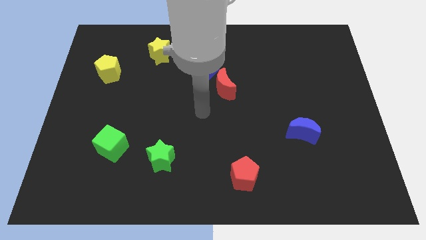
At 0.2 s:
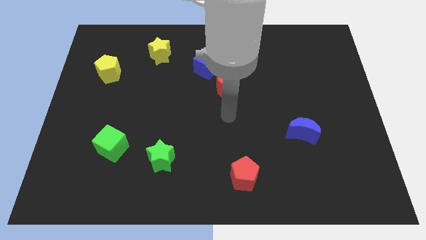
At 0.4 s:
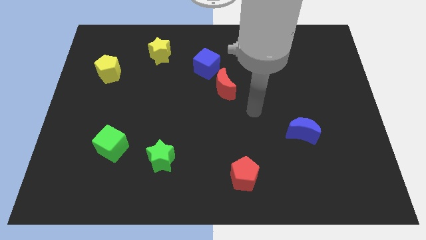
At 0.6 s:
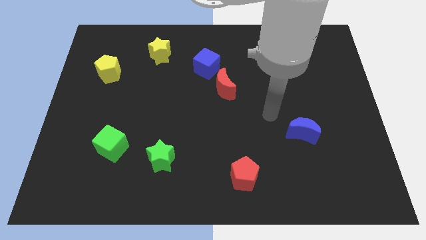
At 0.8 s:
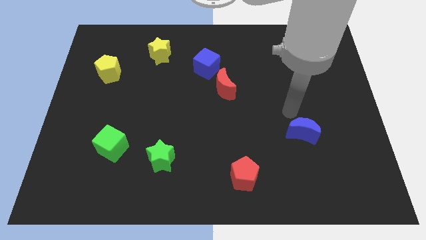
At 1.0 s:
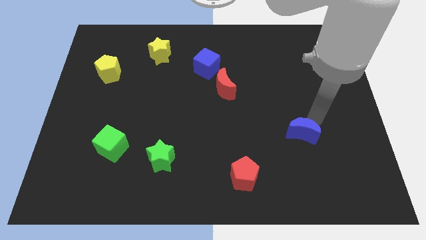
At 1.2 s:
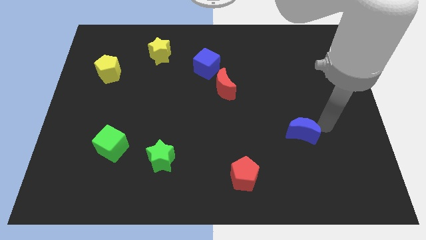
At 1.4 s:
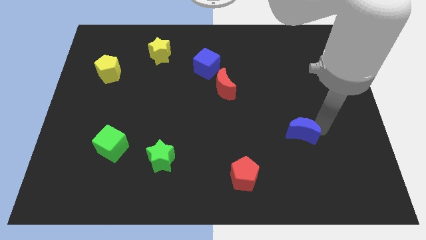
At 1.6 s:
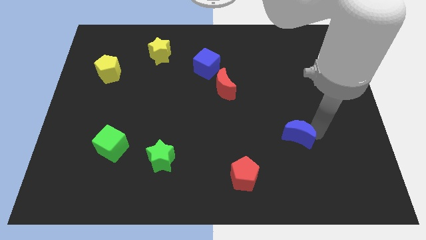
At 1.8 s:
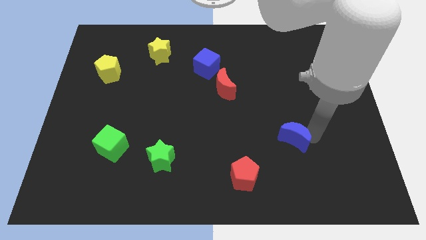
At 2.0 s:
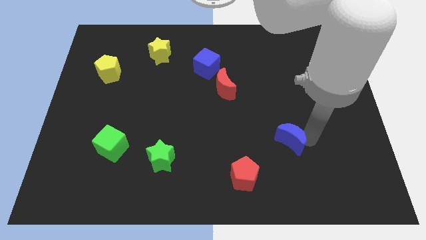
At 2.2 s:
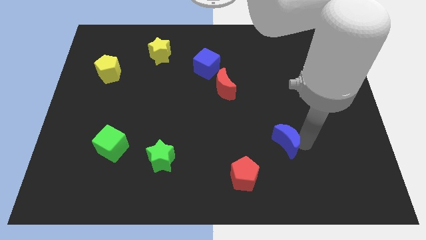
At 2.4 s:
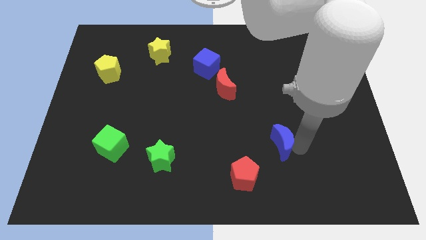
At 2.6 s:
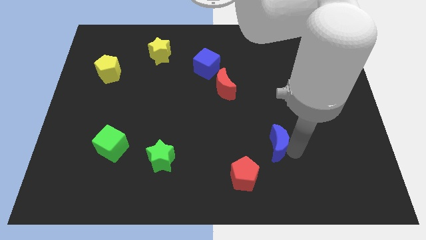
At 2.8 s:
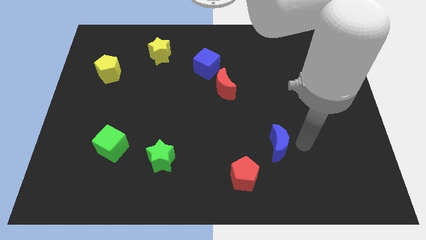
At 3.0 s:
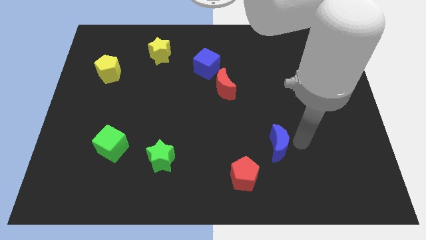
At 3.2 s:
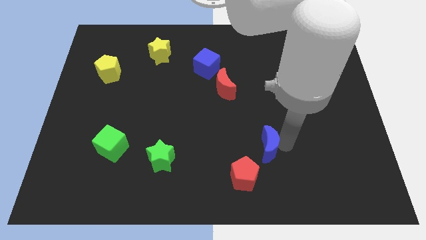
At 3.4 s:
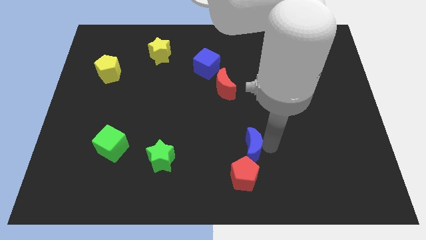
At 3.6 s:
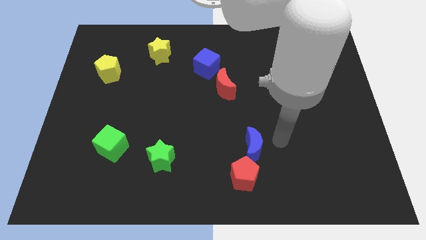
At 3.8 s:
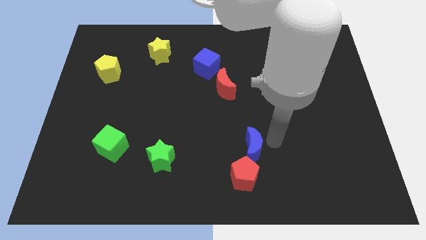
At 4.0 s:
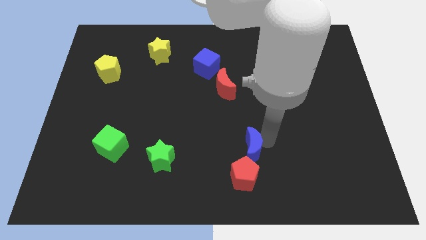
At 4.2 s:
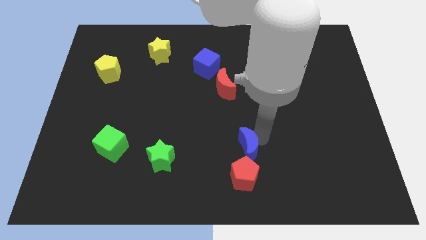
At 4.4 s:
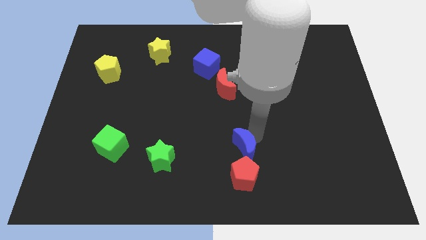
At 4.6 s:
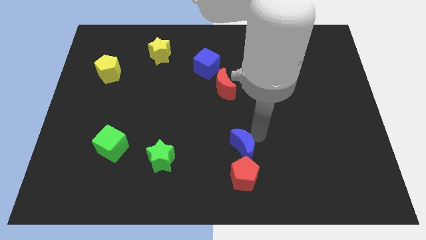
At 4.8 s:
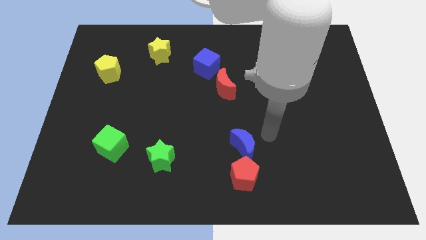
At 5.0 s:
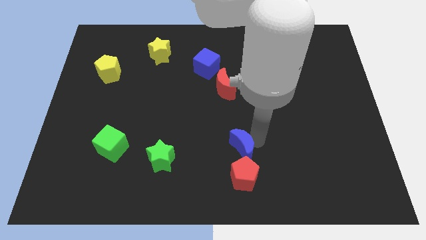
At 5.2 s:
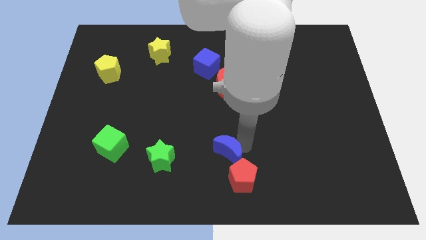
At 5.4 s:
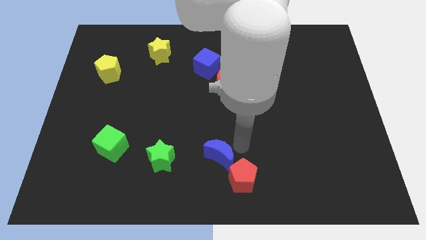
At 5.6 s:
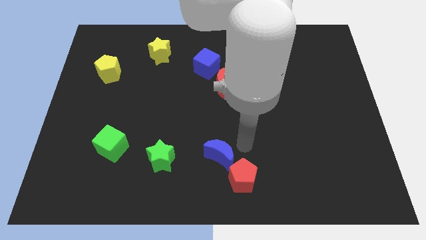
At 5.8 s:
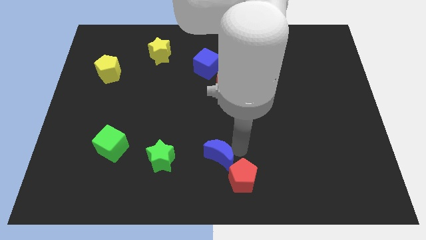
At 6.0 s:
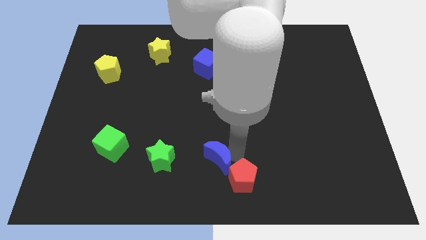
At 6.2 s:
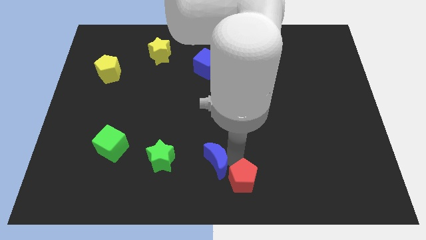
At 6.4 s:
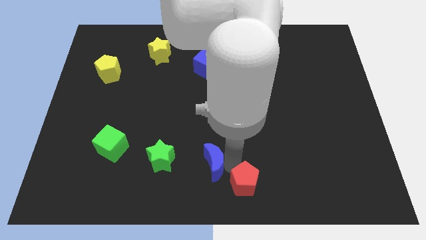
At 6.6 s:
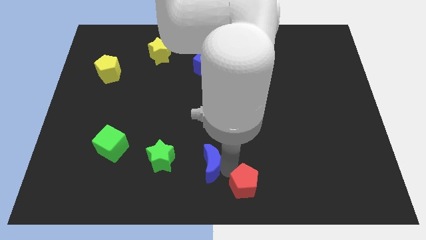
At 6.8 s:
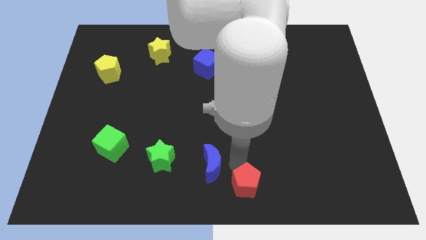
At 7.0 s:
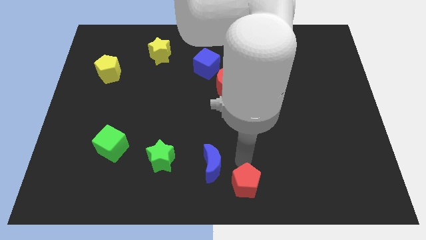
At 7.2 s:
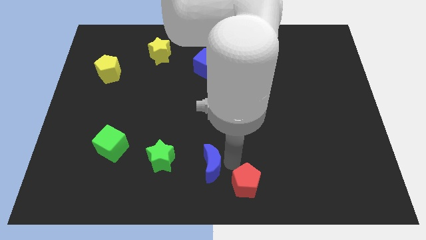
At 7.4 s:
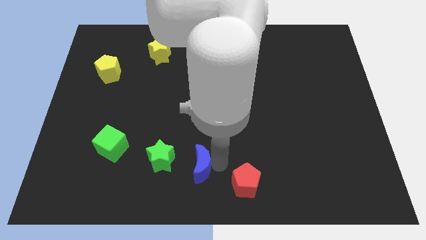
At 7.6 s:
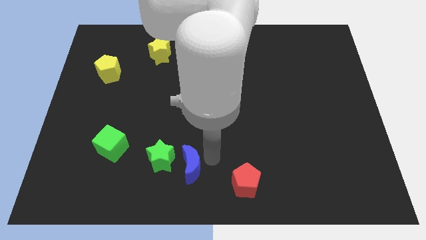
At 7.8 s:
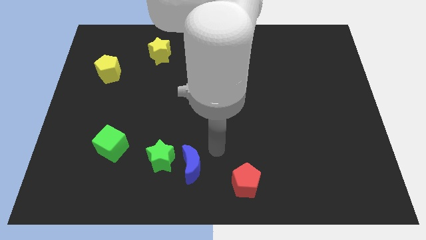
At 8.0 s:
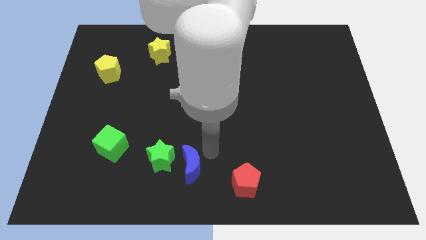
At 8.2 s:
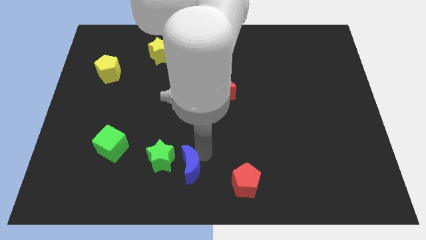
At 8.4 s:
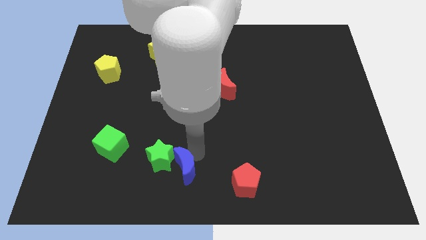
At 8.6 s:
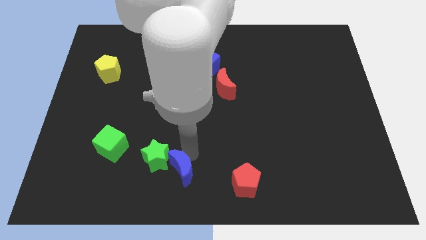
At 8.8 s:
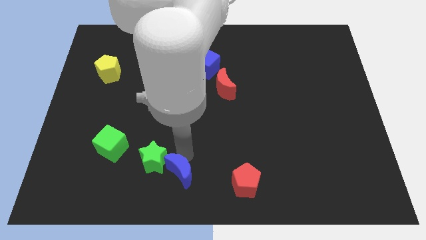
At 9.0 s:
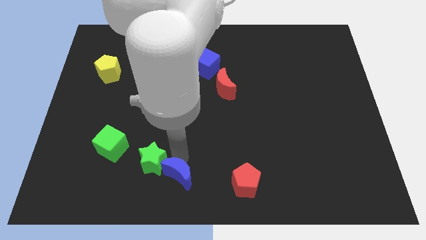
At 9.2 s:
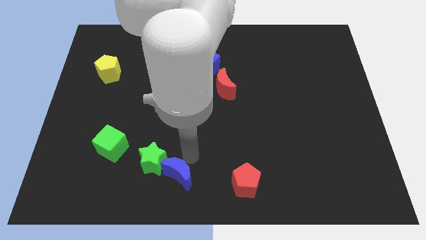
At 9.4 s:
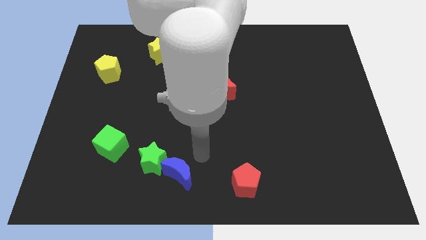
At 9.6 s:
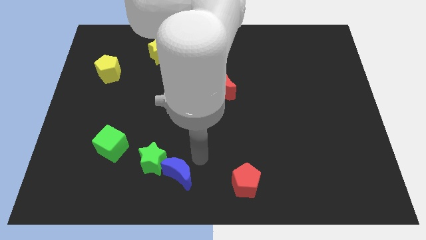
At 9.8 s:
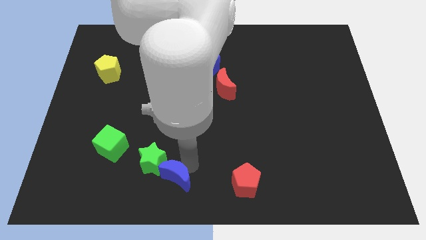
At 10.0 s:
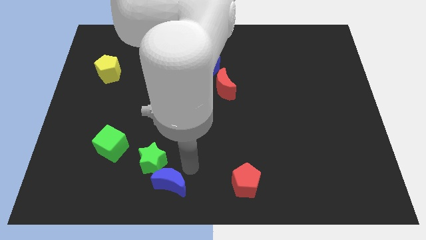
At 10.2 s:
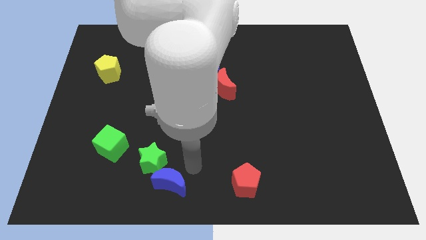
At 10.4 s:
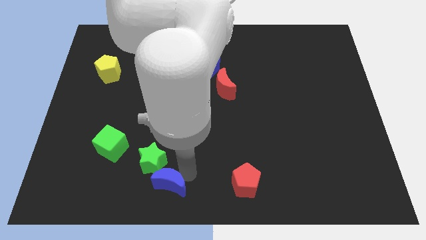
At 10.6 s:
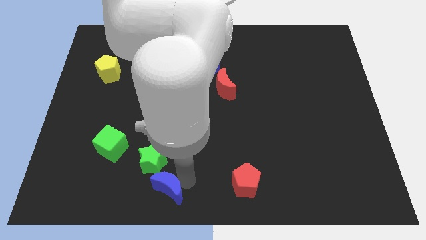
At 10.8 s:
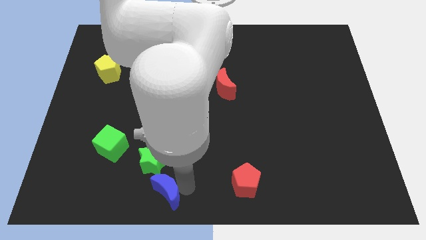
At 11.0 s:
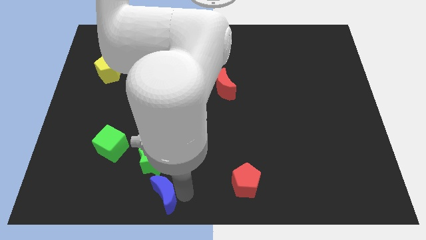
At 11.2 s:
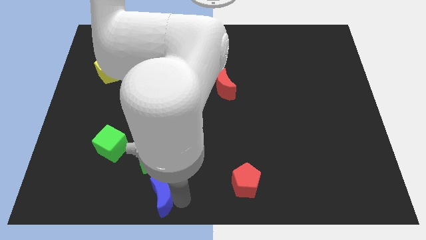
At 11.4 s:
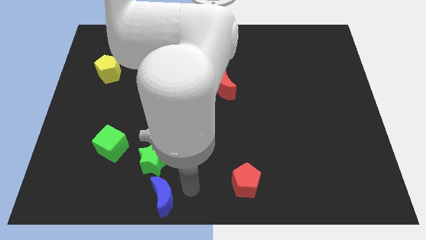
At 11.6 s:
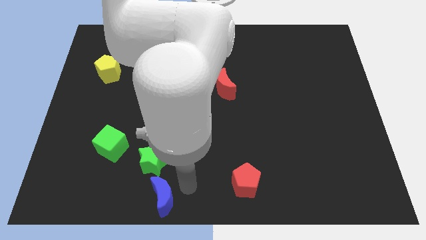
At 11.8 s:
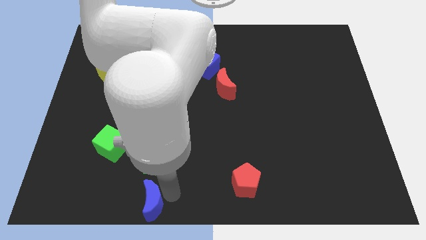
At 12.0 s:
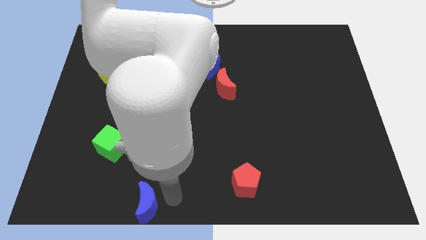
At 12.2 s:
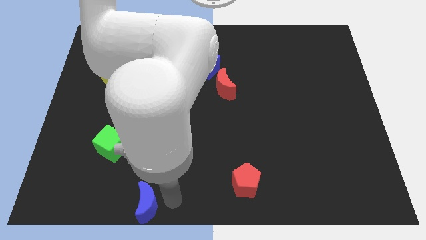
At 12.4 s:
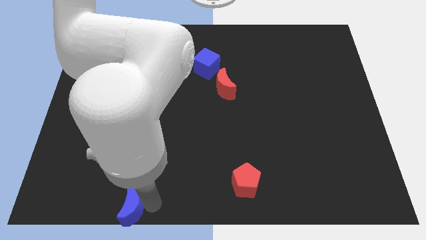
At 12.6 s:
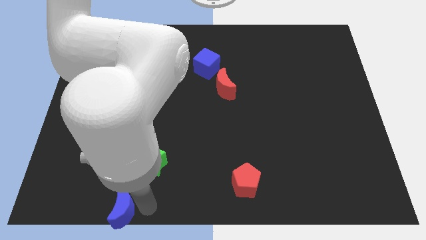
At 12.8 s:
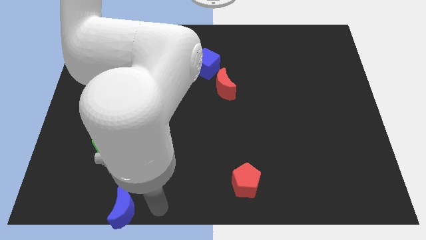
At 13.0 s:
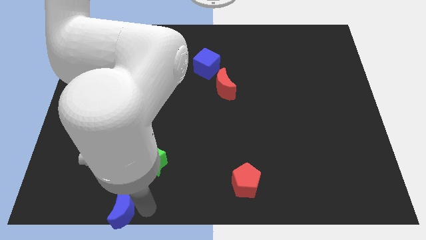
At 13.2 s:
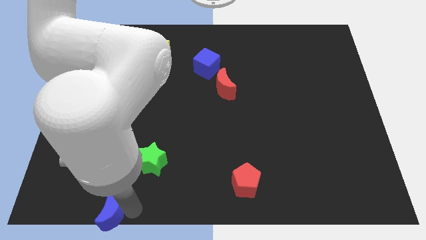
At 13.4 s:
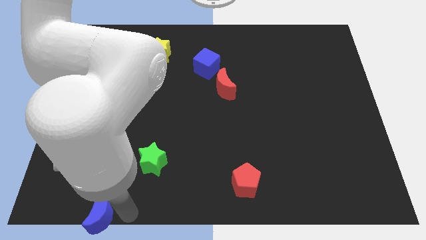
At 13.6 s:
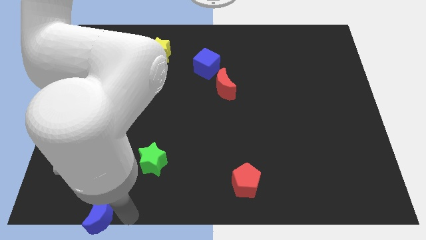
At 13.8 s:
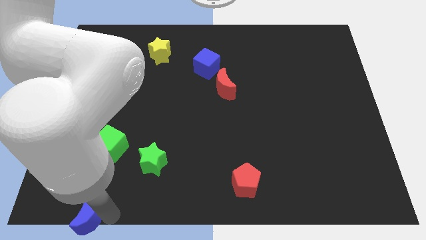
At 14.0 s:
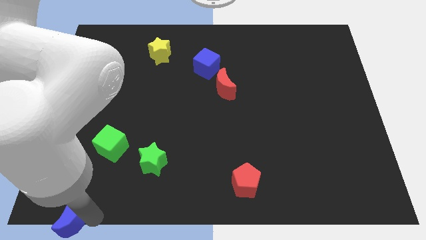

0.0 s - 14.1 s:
put the blue moon to the bottom left of the board
